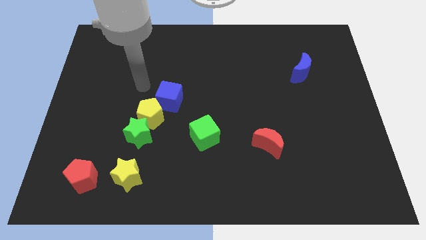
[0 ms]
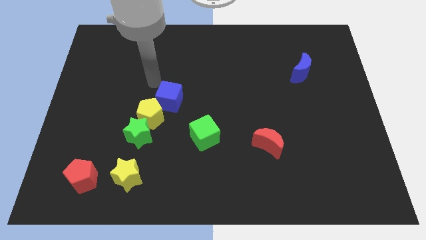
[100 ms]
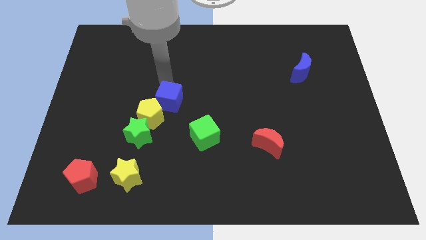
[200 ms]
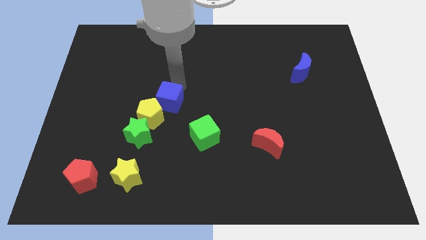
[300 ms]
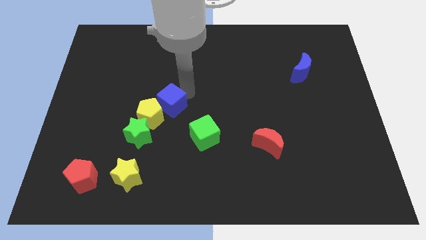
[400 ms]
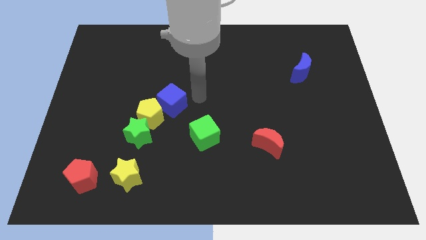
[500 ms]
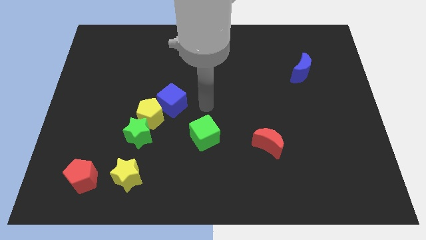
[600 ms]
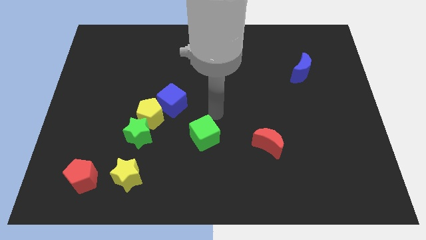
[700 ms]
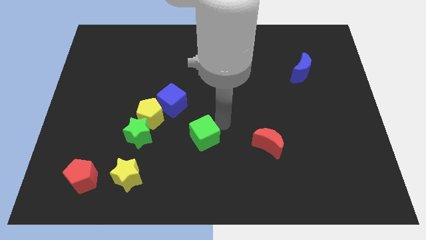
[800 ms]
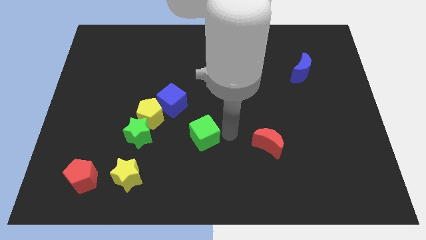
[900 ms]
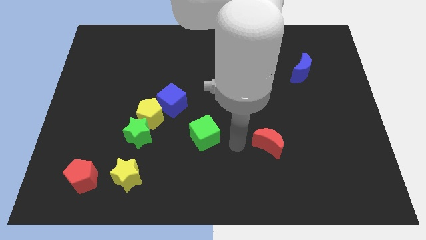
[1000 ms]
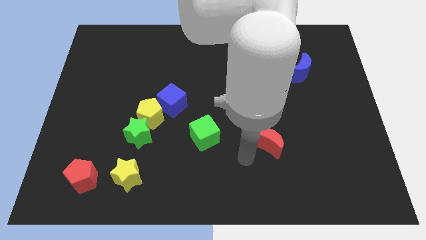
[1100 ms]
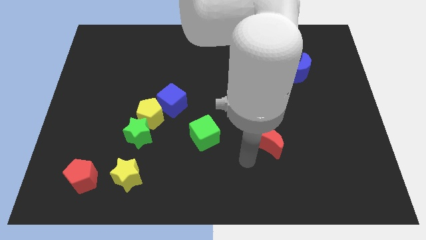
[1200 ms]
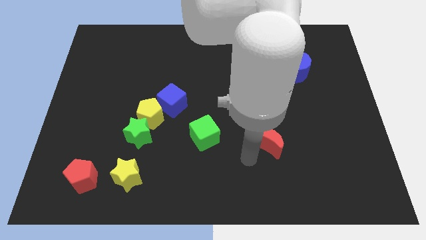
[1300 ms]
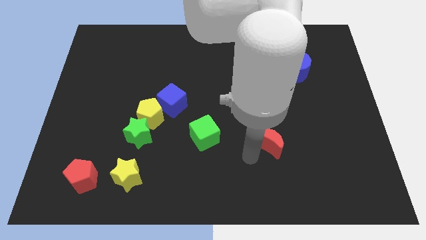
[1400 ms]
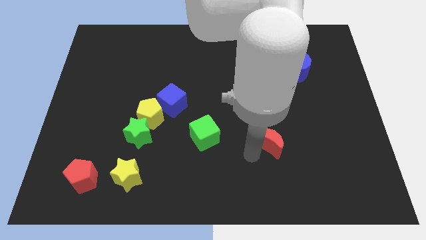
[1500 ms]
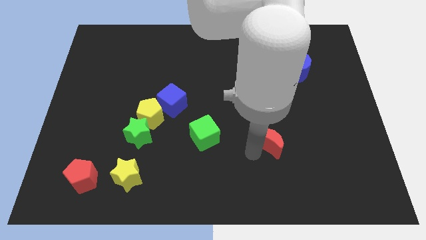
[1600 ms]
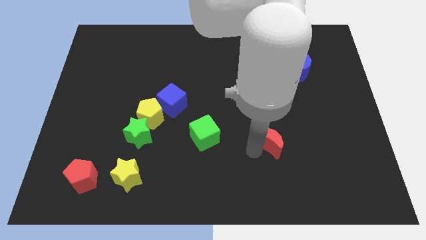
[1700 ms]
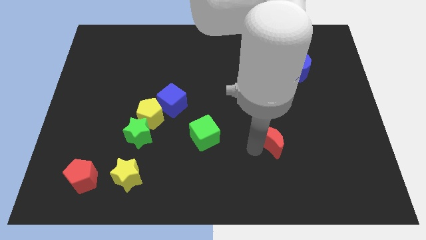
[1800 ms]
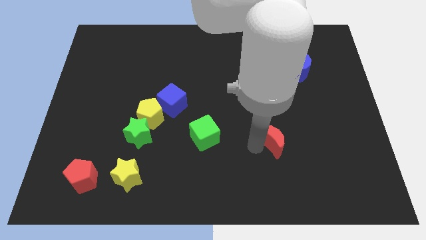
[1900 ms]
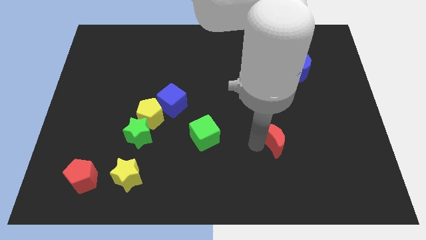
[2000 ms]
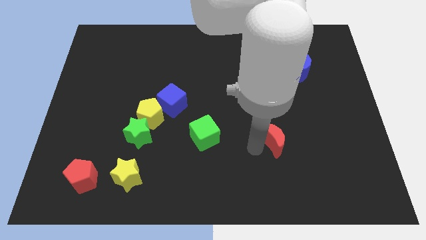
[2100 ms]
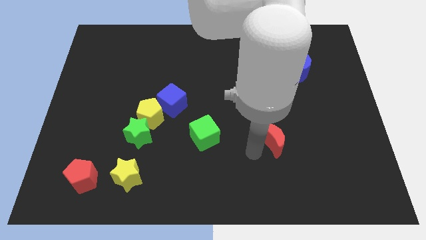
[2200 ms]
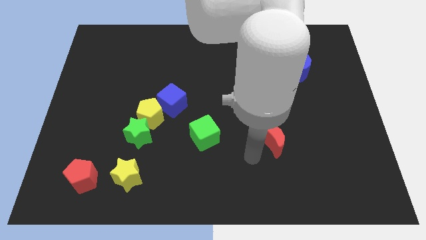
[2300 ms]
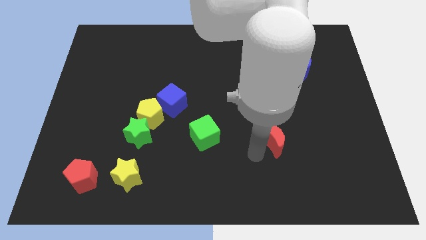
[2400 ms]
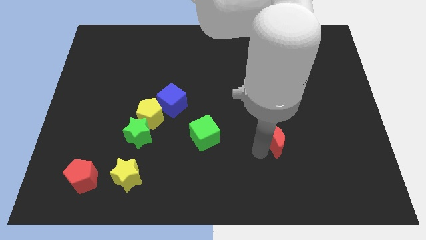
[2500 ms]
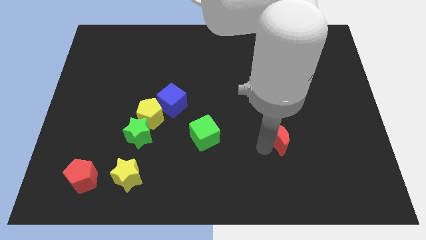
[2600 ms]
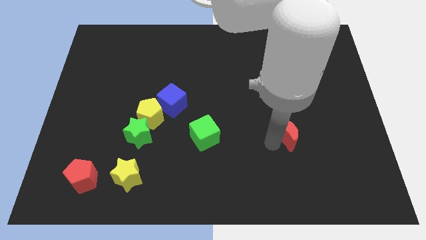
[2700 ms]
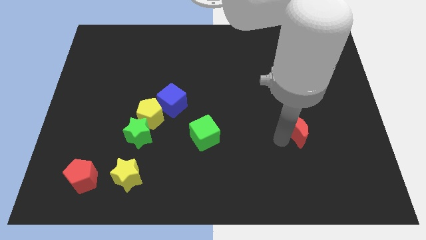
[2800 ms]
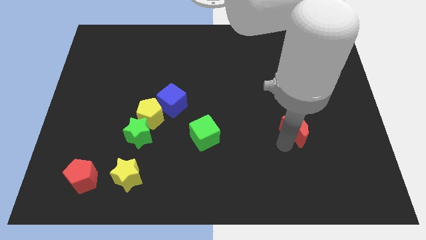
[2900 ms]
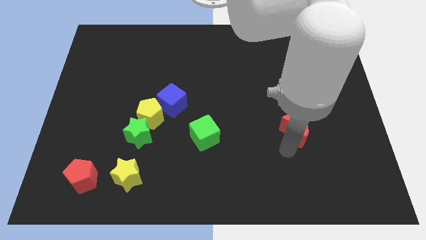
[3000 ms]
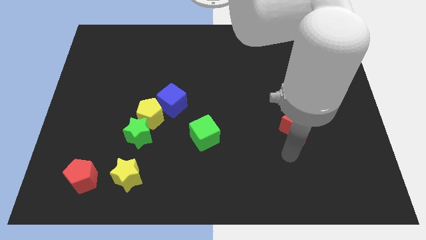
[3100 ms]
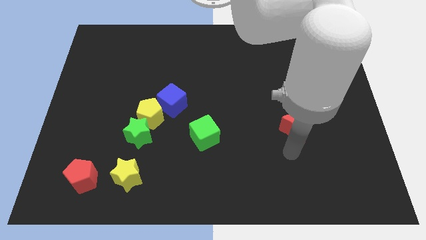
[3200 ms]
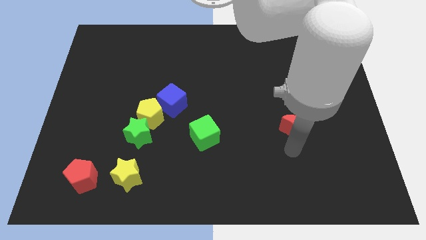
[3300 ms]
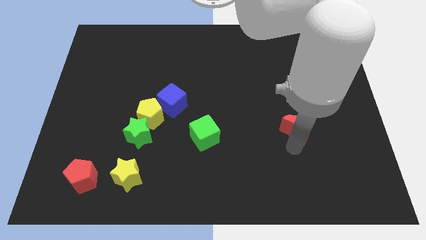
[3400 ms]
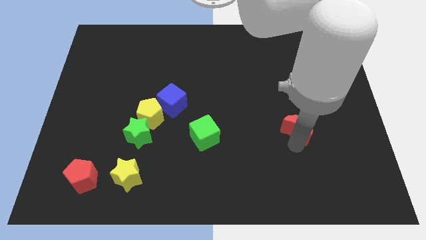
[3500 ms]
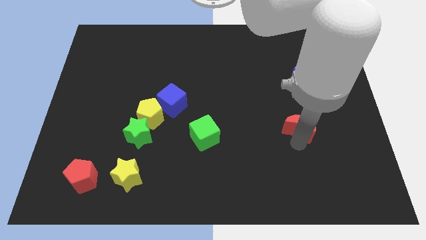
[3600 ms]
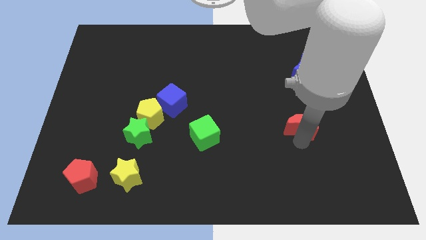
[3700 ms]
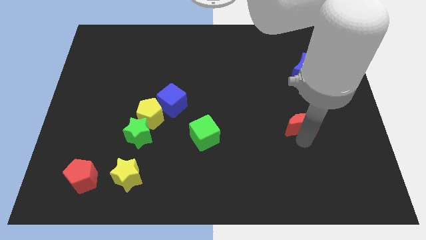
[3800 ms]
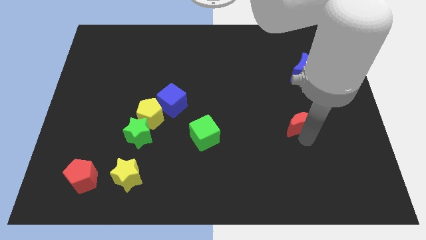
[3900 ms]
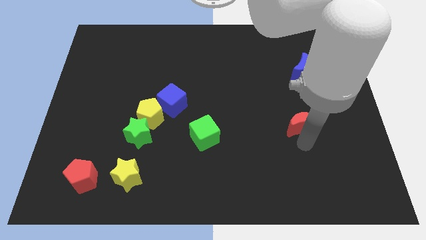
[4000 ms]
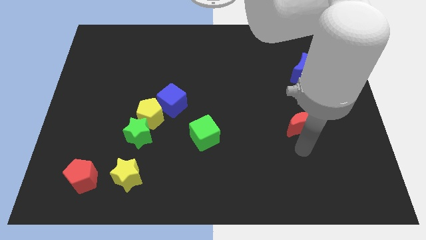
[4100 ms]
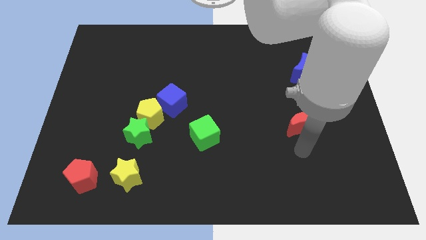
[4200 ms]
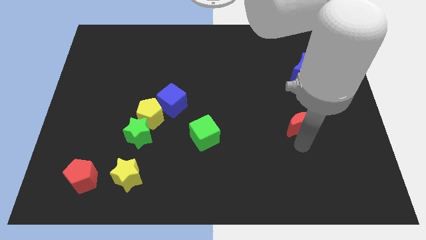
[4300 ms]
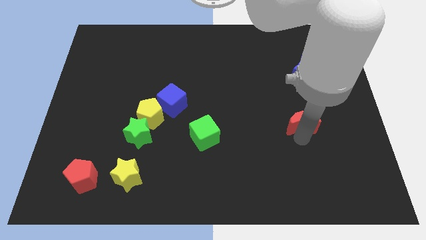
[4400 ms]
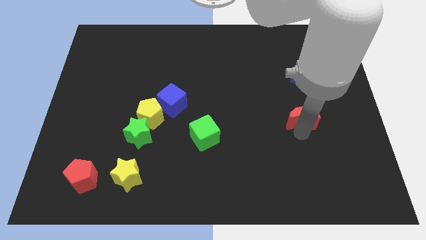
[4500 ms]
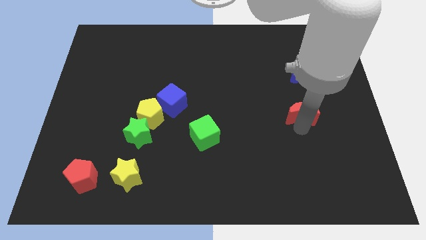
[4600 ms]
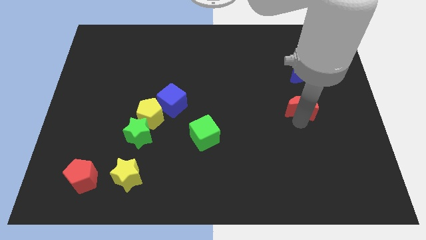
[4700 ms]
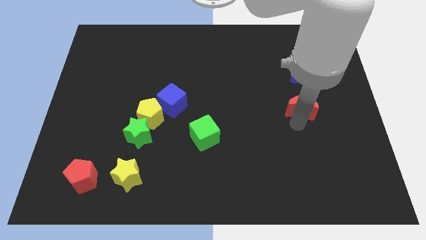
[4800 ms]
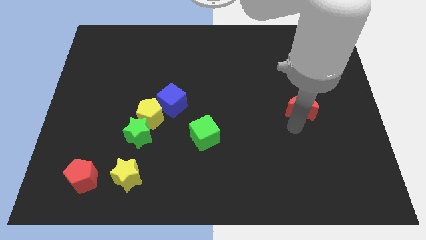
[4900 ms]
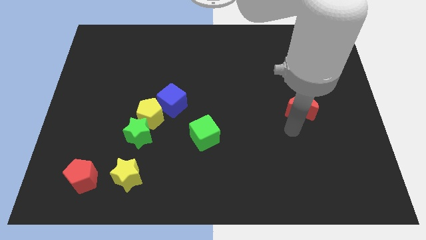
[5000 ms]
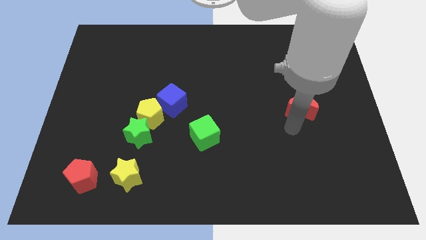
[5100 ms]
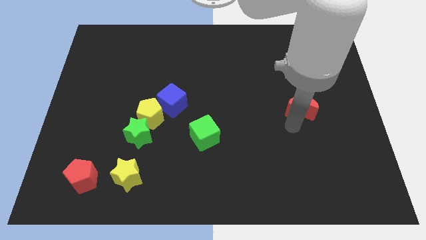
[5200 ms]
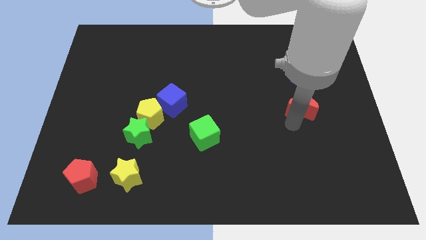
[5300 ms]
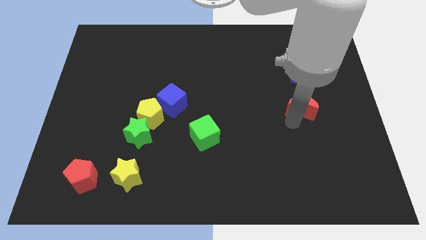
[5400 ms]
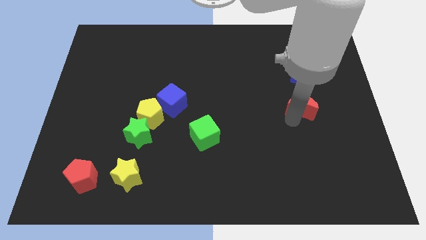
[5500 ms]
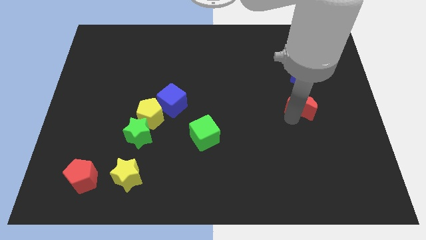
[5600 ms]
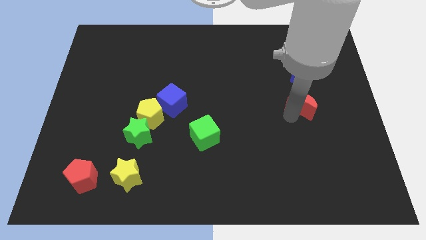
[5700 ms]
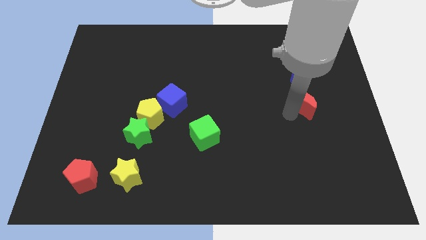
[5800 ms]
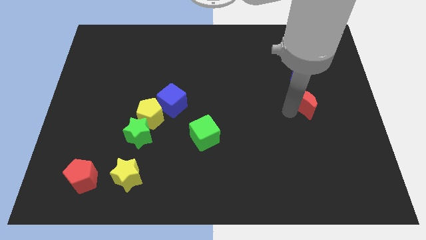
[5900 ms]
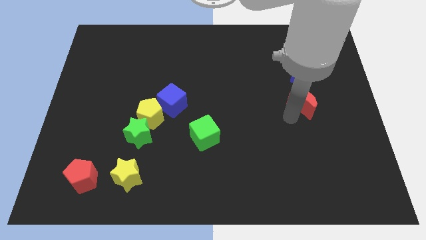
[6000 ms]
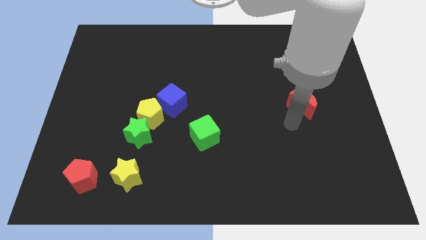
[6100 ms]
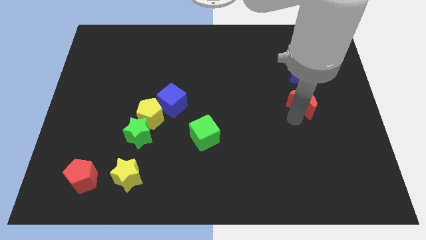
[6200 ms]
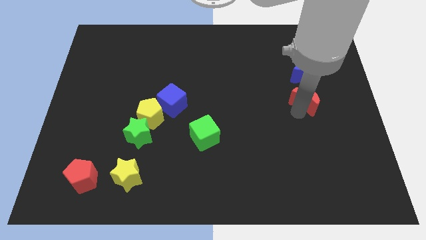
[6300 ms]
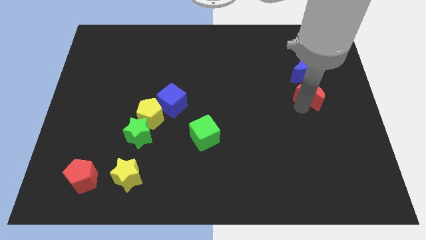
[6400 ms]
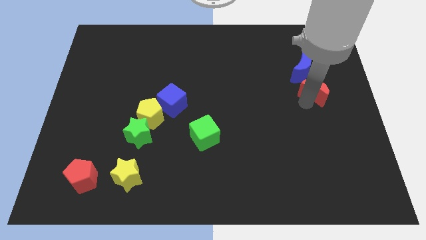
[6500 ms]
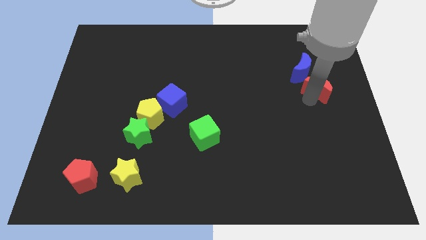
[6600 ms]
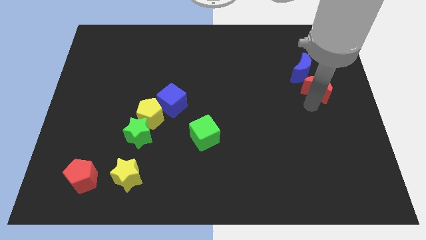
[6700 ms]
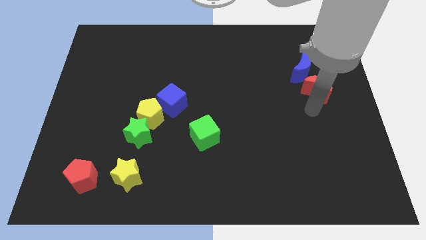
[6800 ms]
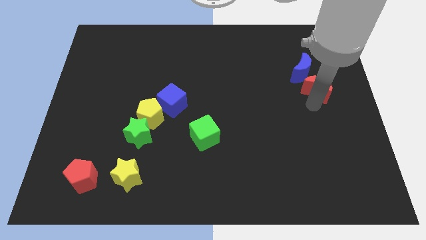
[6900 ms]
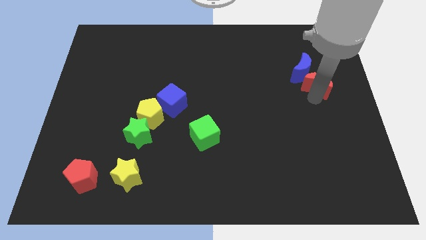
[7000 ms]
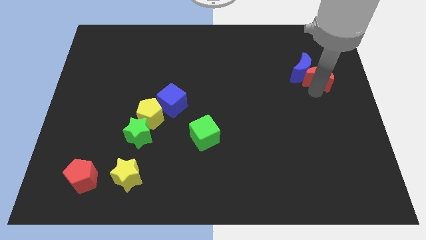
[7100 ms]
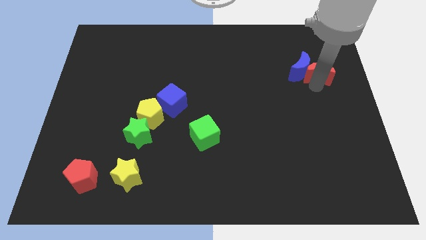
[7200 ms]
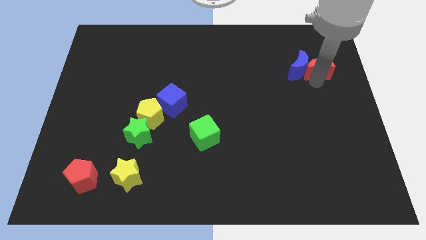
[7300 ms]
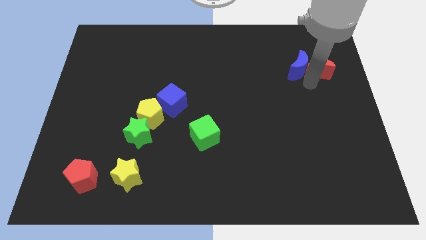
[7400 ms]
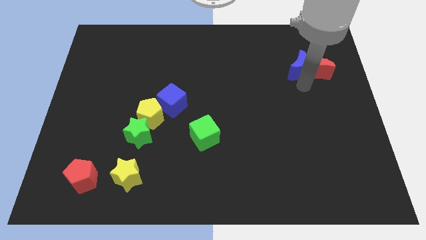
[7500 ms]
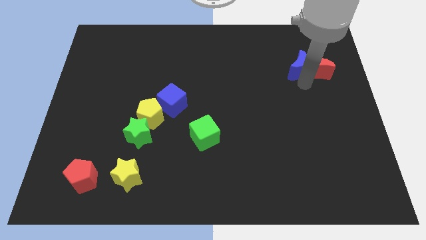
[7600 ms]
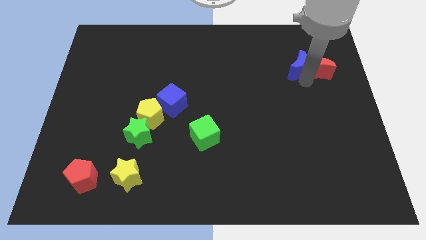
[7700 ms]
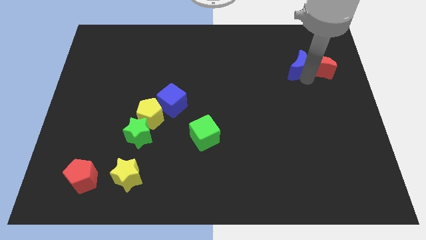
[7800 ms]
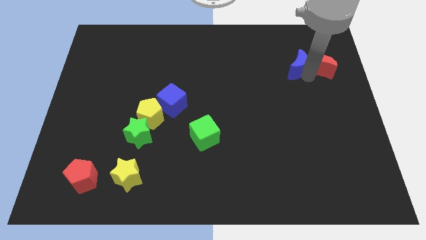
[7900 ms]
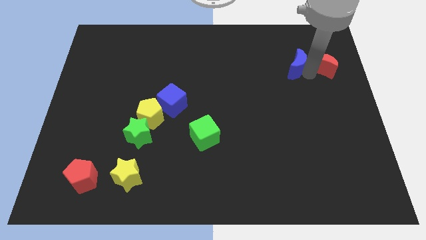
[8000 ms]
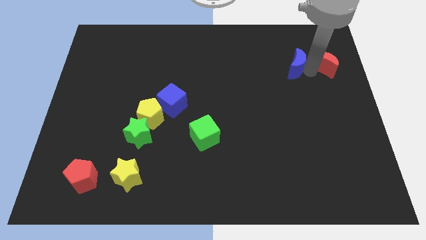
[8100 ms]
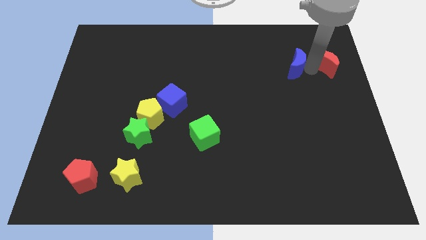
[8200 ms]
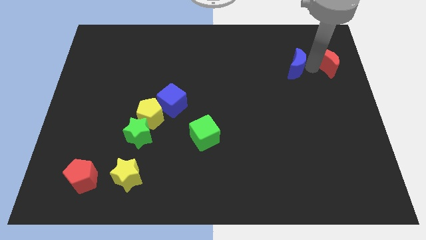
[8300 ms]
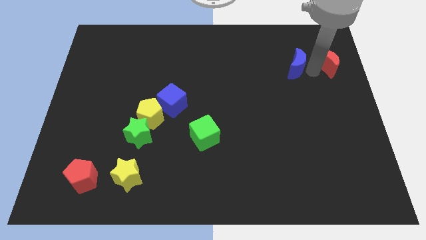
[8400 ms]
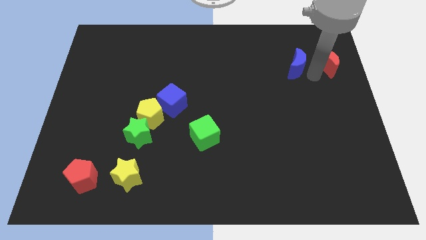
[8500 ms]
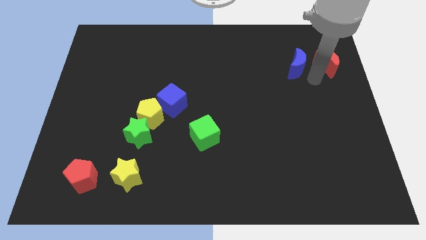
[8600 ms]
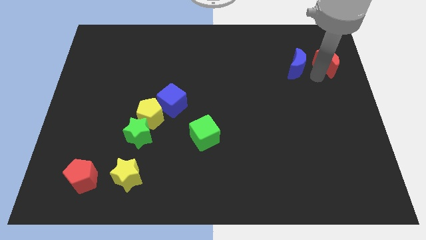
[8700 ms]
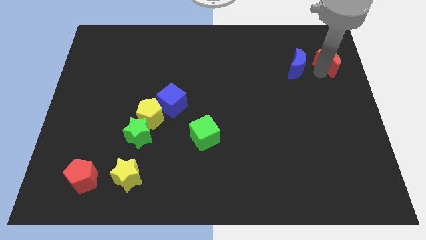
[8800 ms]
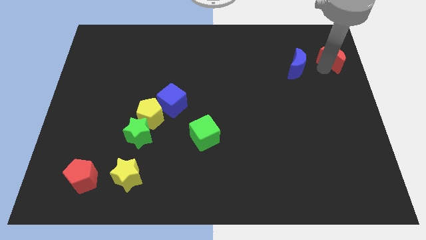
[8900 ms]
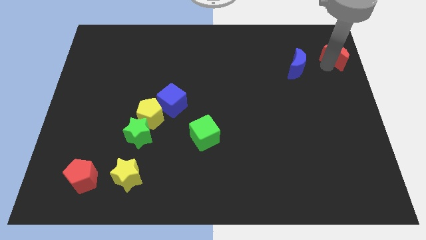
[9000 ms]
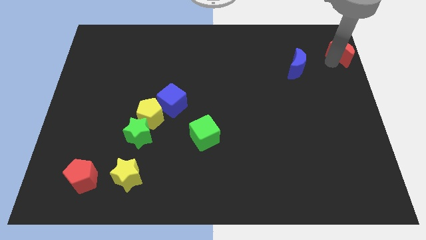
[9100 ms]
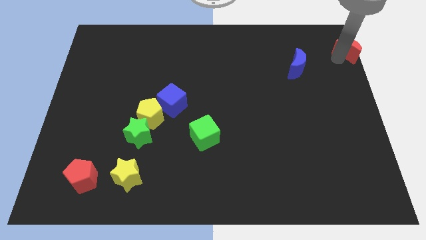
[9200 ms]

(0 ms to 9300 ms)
slide the red moon to the top right of the board
